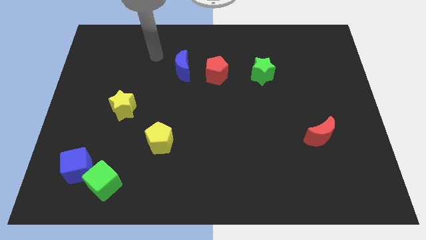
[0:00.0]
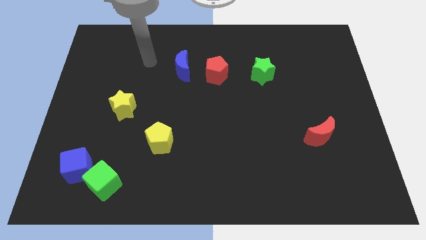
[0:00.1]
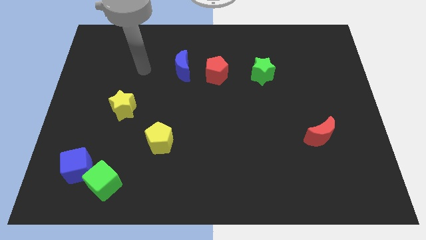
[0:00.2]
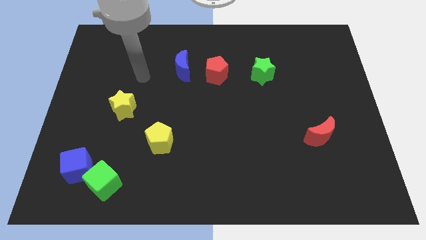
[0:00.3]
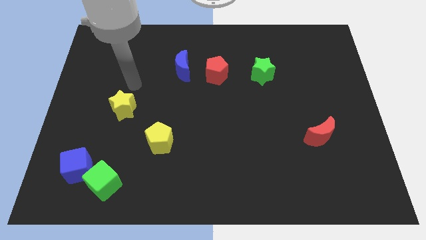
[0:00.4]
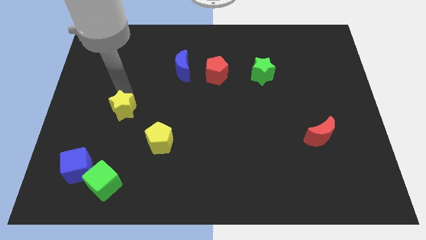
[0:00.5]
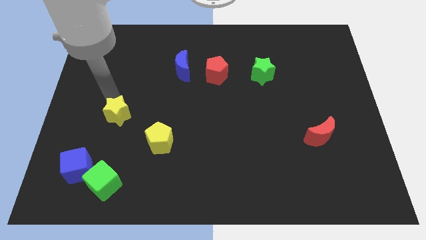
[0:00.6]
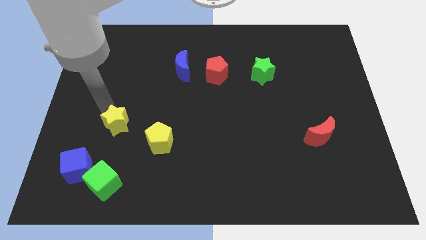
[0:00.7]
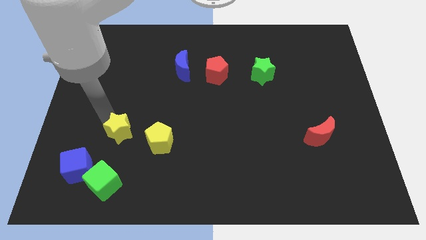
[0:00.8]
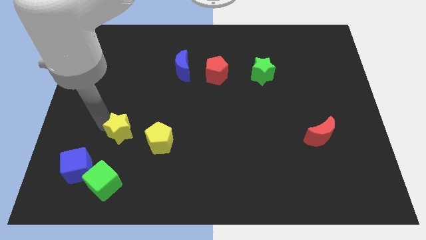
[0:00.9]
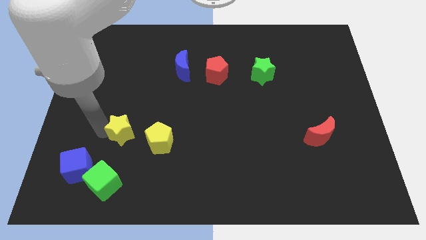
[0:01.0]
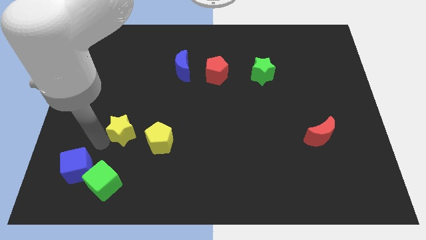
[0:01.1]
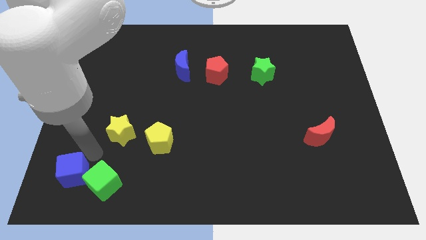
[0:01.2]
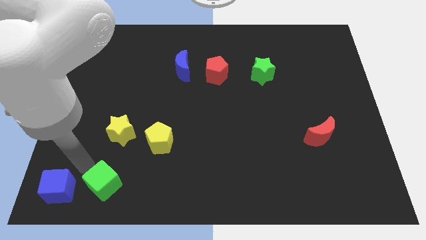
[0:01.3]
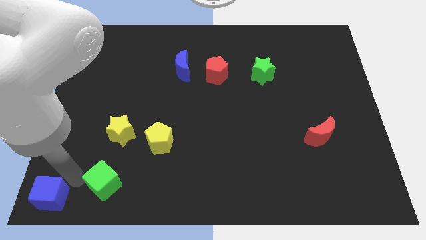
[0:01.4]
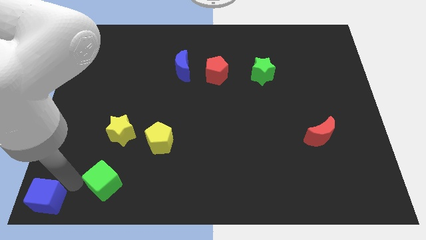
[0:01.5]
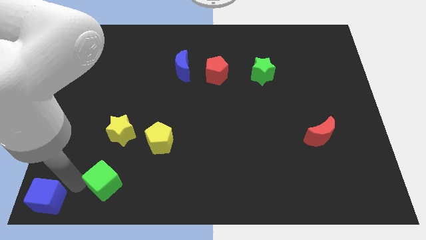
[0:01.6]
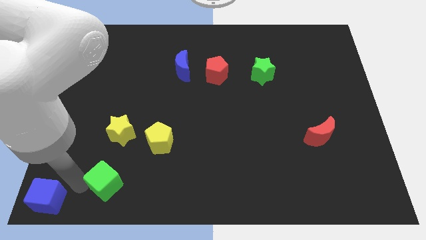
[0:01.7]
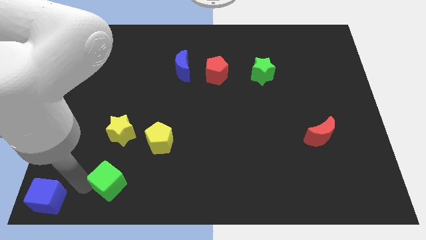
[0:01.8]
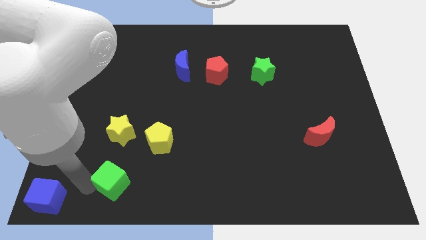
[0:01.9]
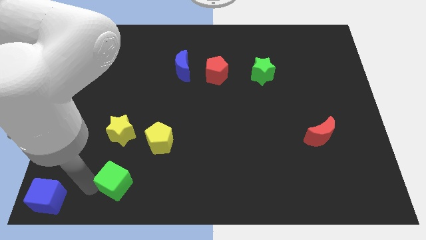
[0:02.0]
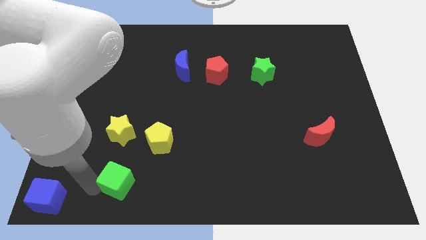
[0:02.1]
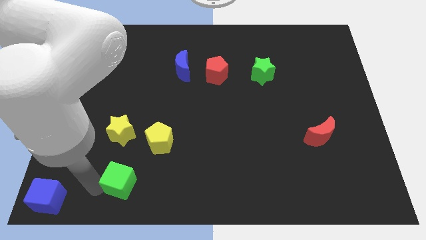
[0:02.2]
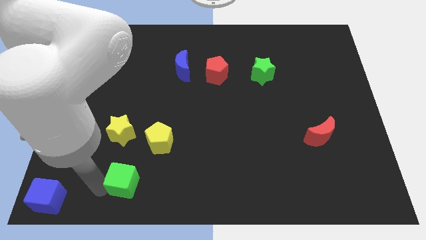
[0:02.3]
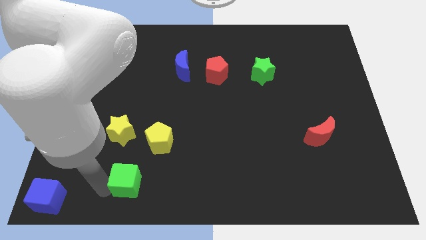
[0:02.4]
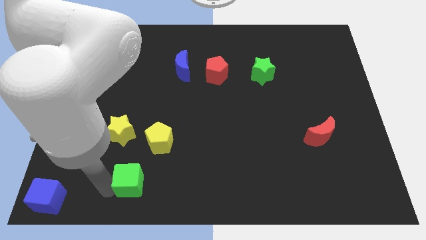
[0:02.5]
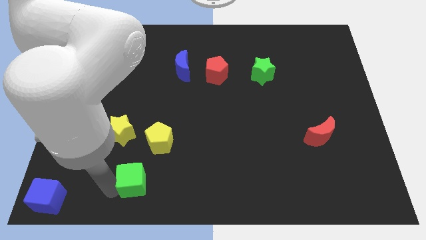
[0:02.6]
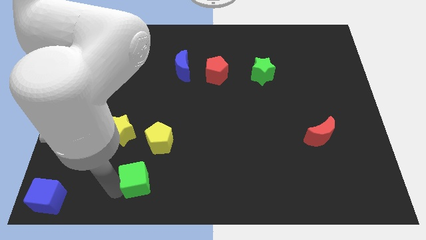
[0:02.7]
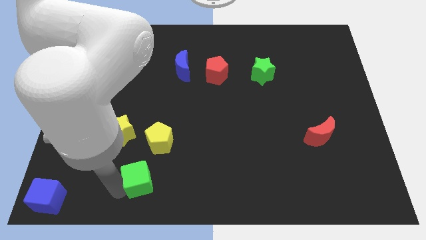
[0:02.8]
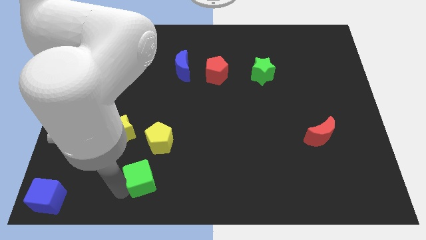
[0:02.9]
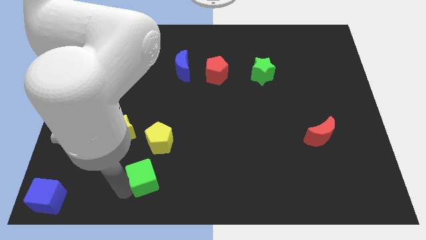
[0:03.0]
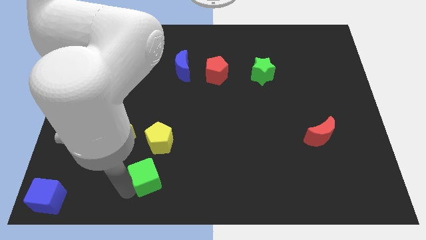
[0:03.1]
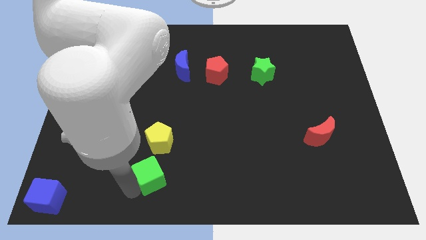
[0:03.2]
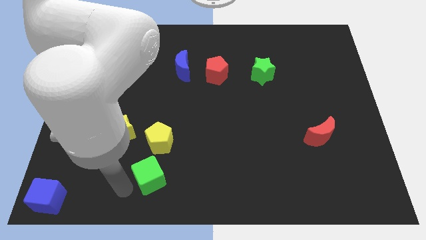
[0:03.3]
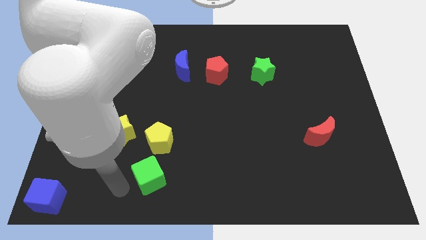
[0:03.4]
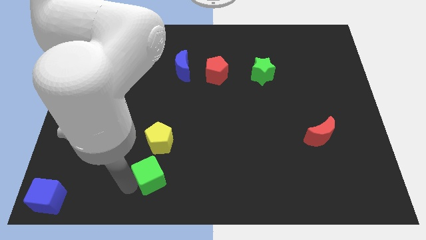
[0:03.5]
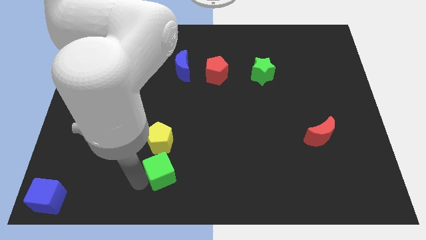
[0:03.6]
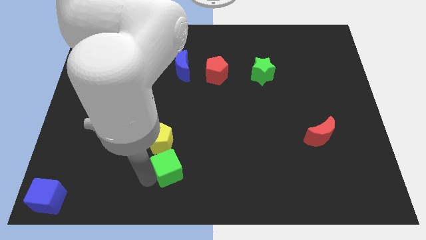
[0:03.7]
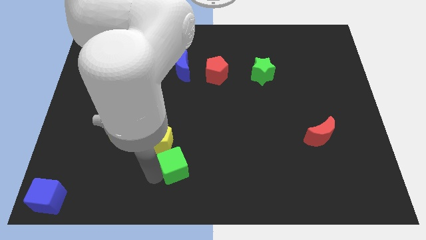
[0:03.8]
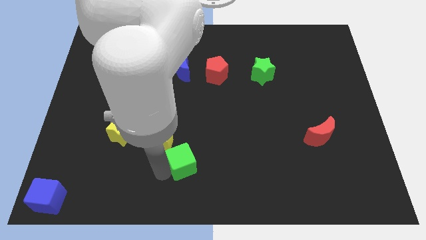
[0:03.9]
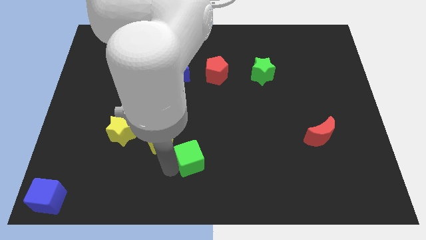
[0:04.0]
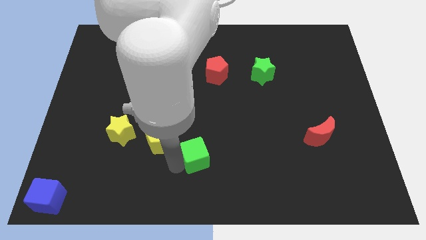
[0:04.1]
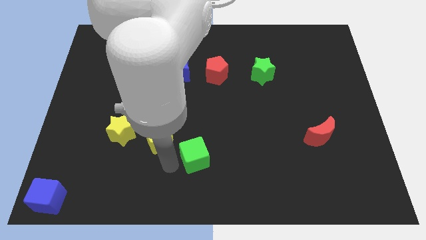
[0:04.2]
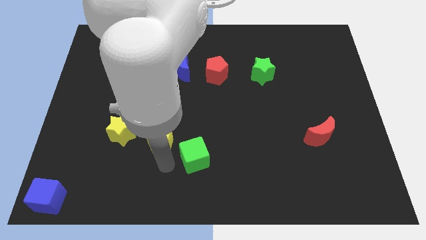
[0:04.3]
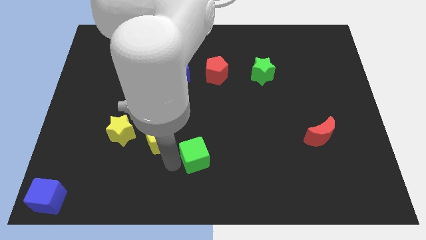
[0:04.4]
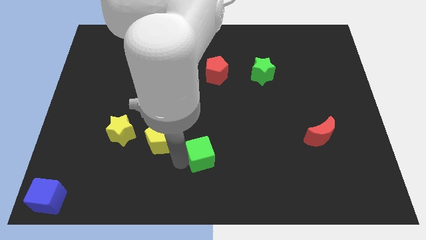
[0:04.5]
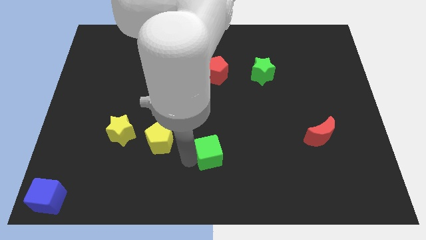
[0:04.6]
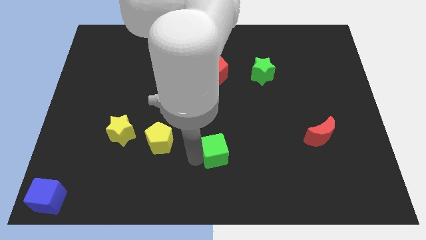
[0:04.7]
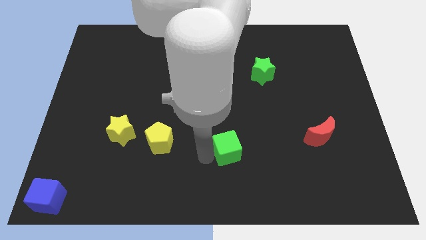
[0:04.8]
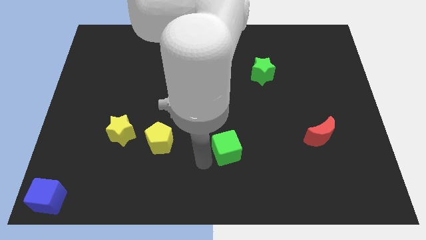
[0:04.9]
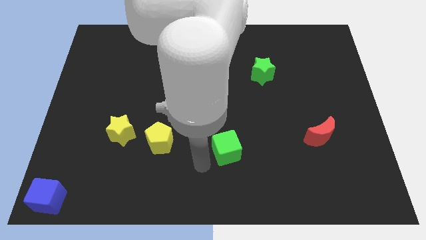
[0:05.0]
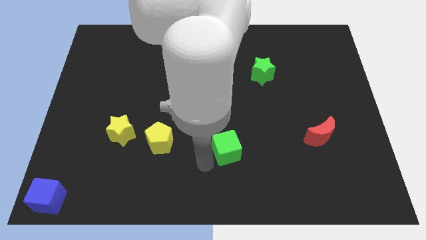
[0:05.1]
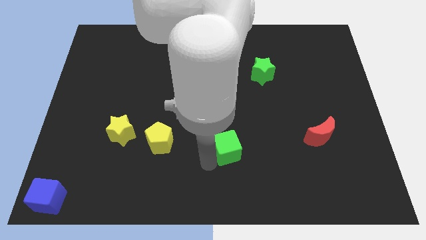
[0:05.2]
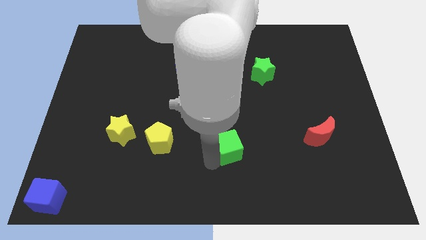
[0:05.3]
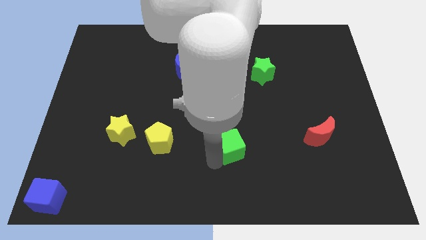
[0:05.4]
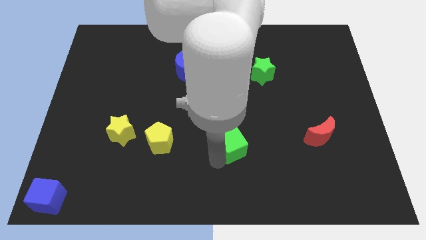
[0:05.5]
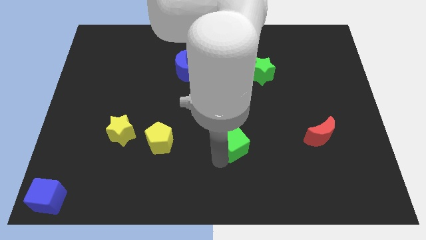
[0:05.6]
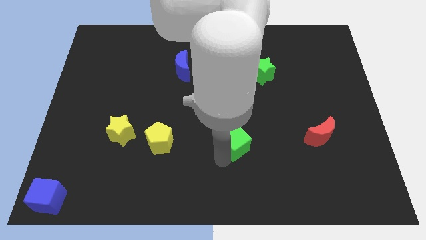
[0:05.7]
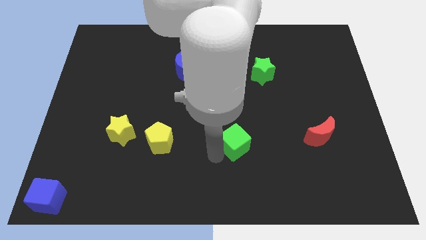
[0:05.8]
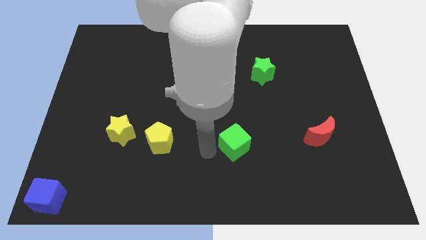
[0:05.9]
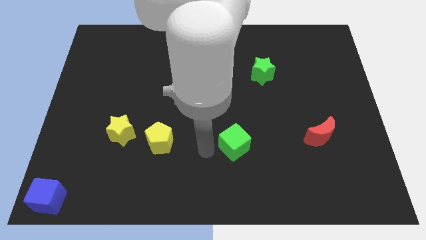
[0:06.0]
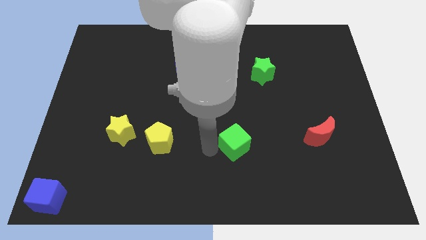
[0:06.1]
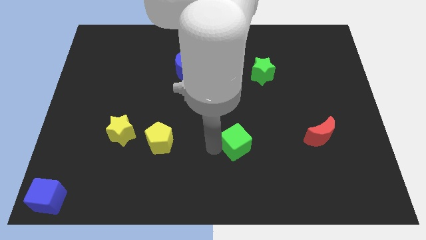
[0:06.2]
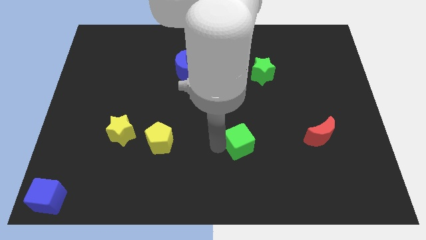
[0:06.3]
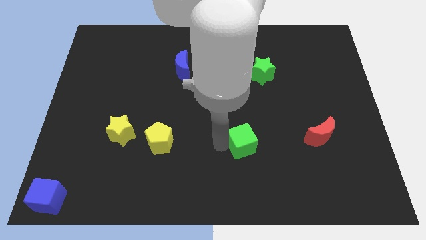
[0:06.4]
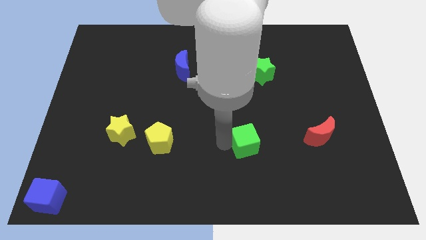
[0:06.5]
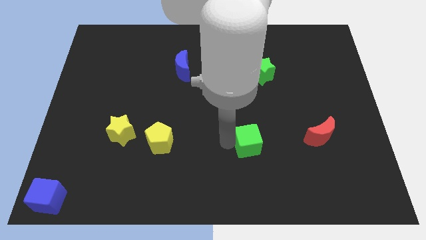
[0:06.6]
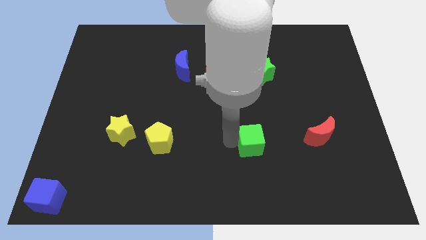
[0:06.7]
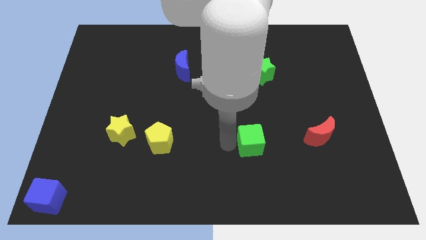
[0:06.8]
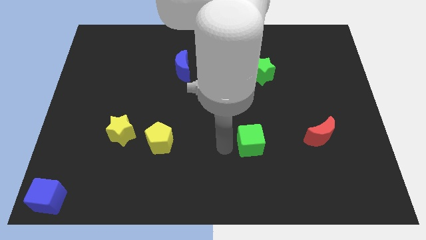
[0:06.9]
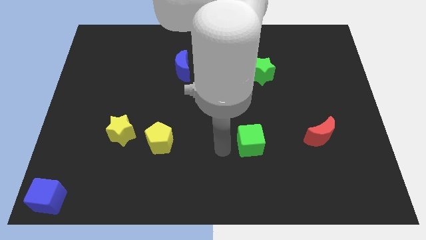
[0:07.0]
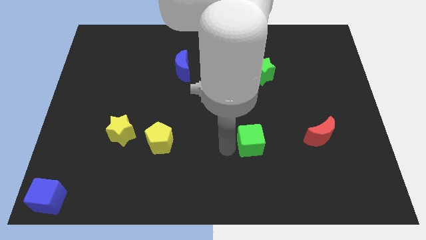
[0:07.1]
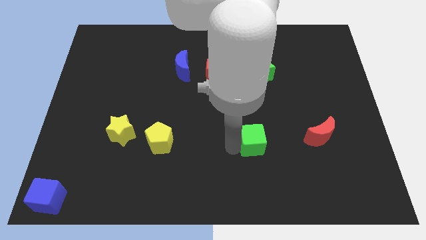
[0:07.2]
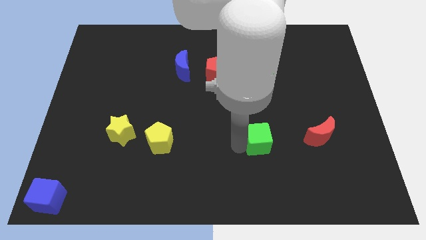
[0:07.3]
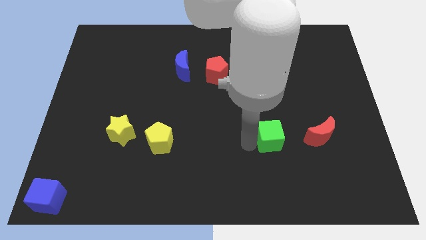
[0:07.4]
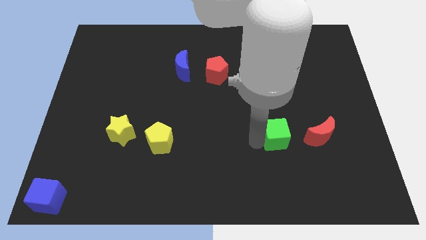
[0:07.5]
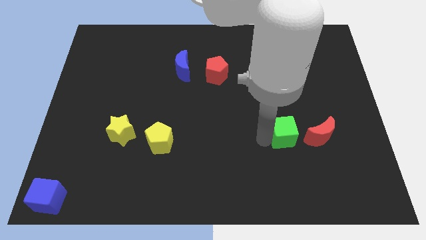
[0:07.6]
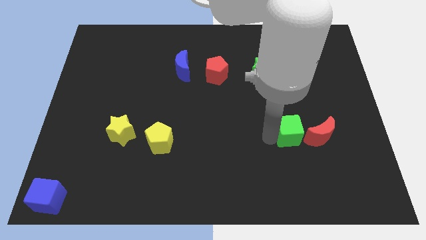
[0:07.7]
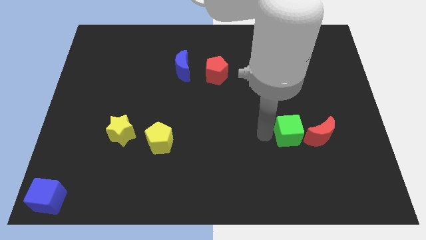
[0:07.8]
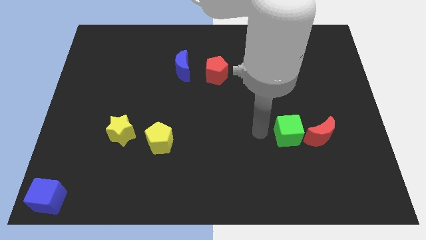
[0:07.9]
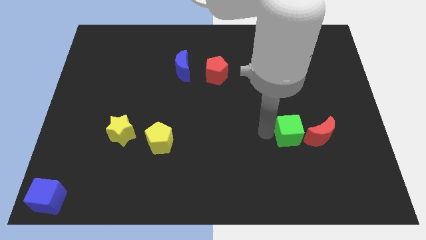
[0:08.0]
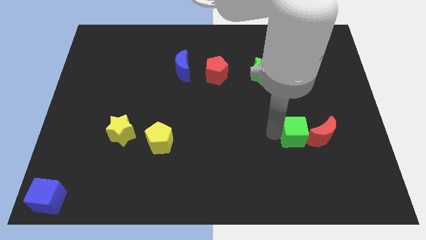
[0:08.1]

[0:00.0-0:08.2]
put the green cube to the red moon
